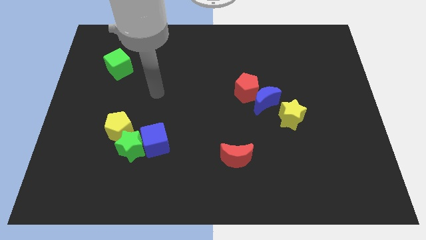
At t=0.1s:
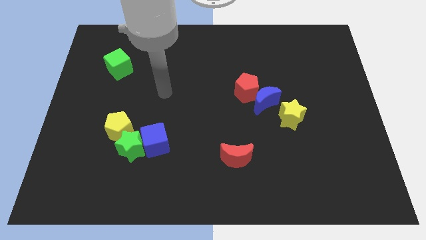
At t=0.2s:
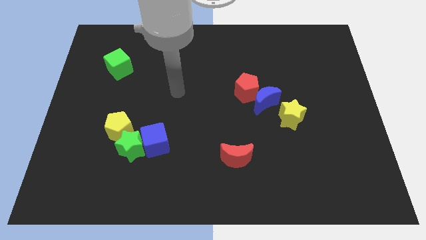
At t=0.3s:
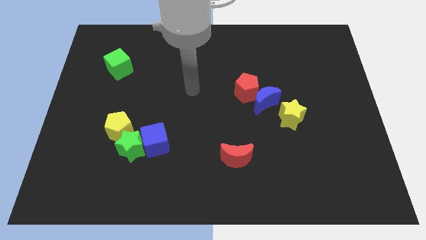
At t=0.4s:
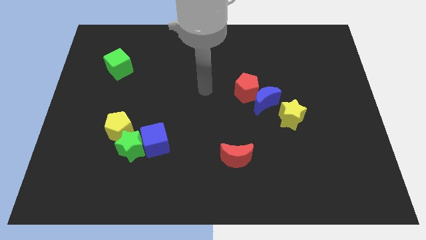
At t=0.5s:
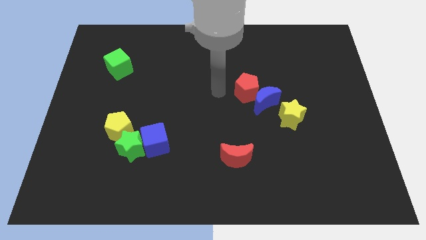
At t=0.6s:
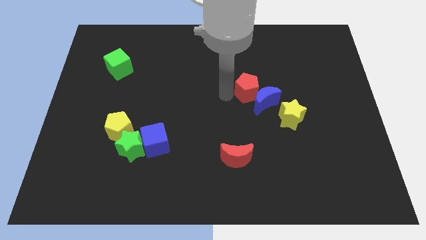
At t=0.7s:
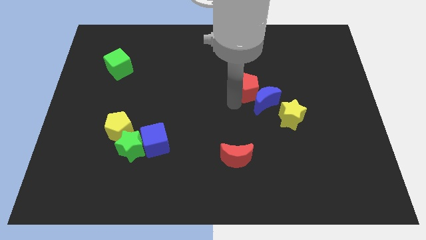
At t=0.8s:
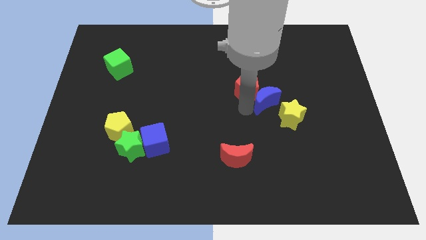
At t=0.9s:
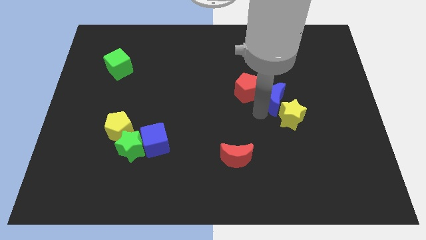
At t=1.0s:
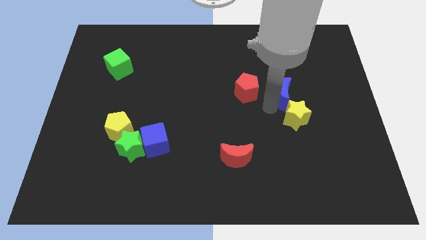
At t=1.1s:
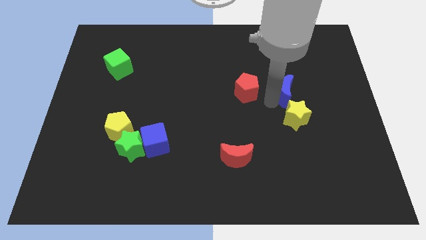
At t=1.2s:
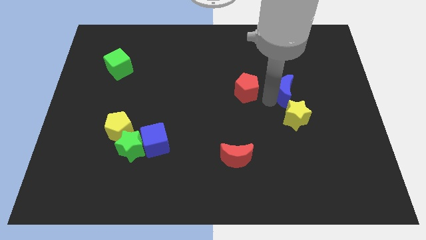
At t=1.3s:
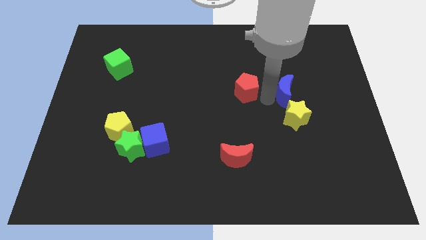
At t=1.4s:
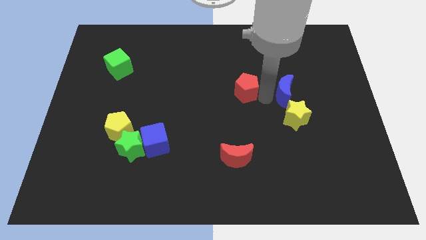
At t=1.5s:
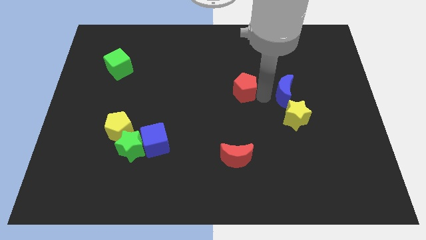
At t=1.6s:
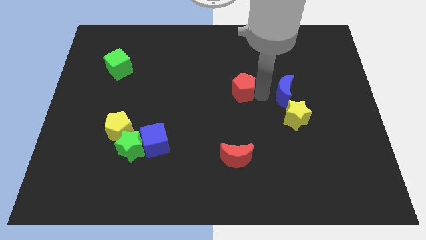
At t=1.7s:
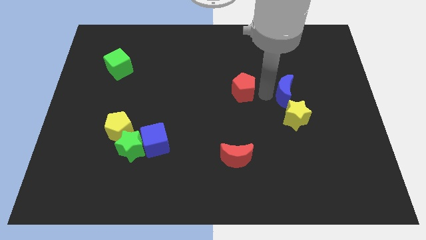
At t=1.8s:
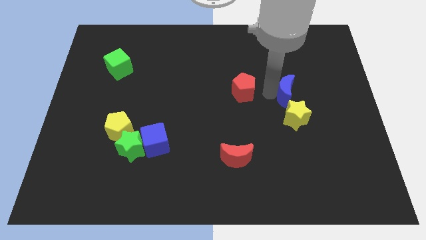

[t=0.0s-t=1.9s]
pull the red pentagon apart from the blue moon

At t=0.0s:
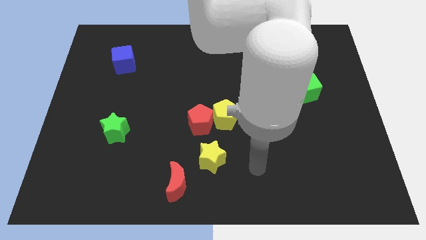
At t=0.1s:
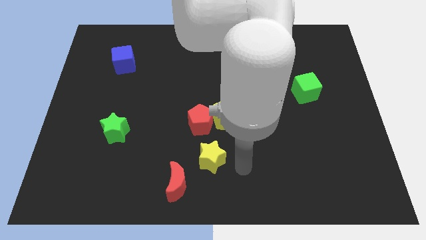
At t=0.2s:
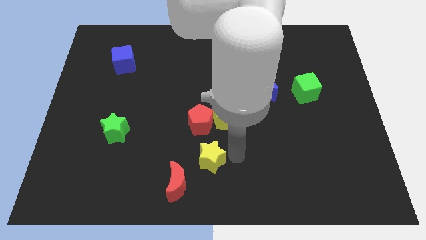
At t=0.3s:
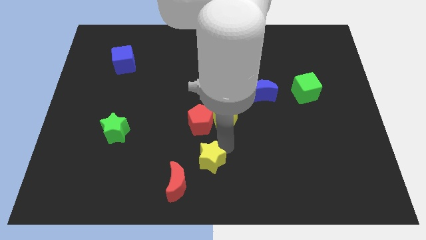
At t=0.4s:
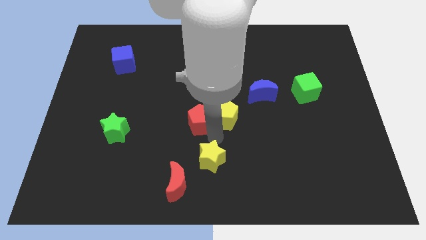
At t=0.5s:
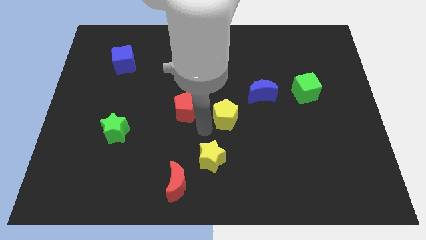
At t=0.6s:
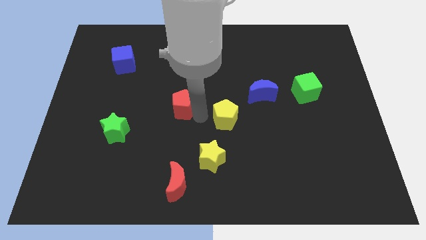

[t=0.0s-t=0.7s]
separate the yellow pentagon from the red pentagon

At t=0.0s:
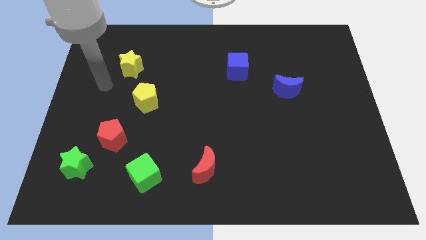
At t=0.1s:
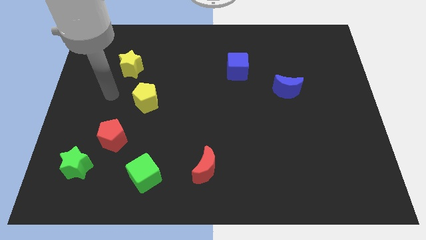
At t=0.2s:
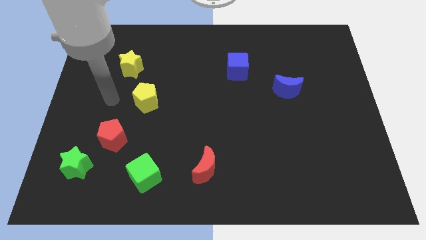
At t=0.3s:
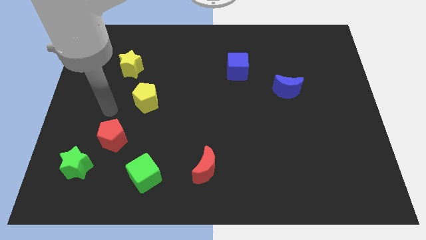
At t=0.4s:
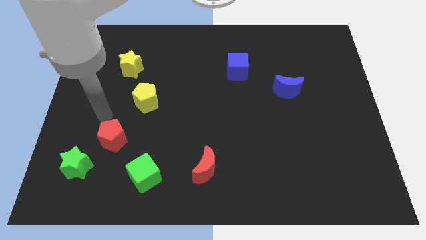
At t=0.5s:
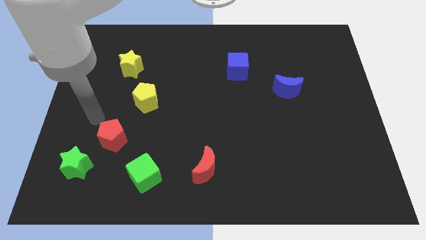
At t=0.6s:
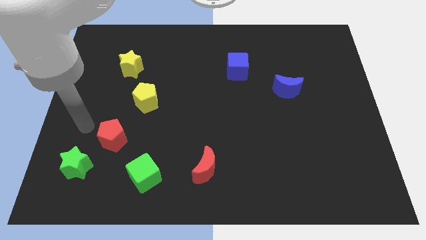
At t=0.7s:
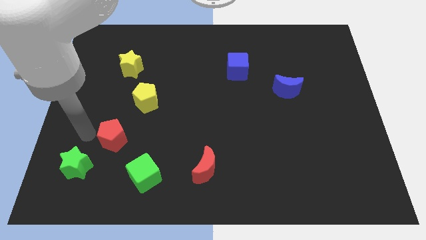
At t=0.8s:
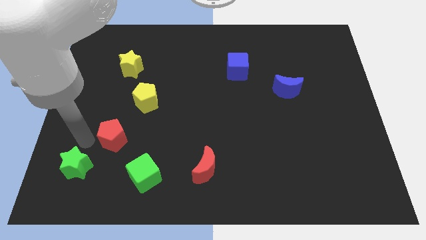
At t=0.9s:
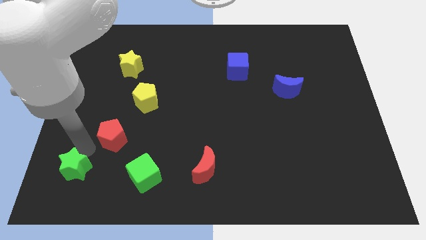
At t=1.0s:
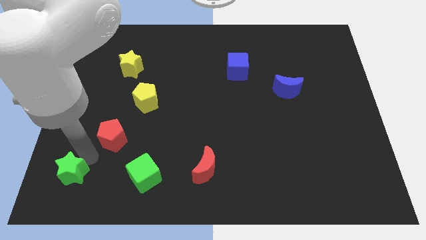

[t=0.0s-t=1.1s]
pull the red pentagon apart from the green star

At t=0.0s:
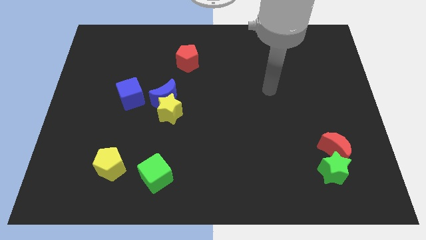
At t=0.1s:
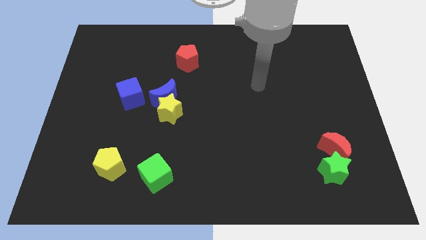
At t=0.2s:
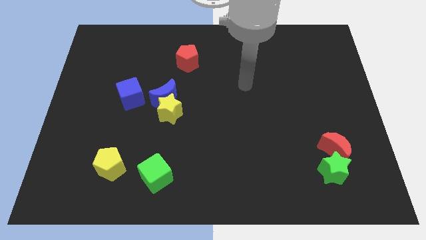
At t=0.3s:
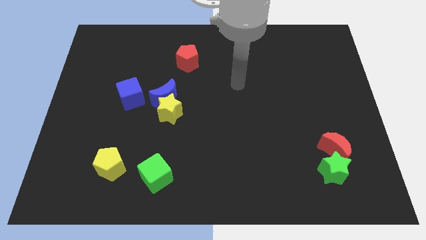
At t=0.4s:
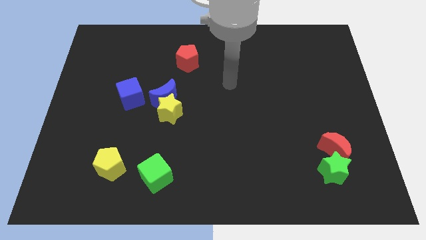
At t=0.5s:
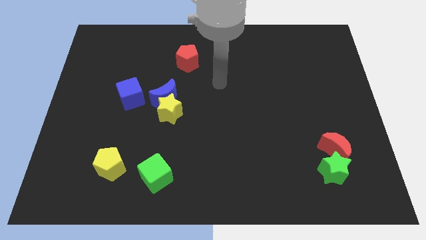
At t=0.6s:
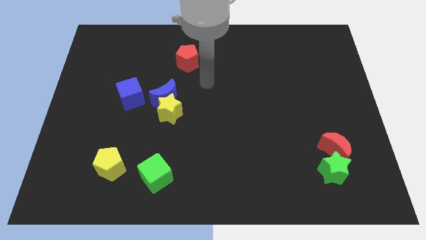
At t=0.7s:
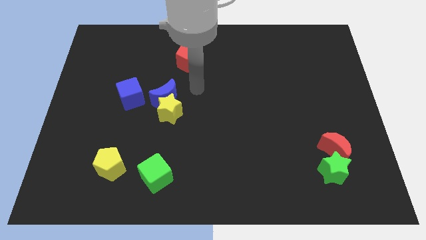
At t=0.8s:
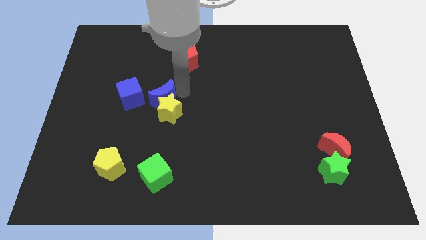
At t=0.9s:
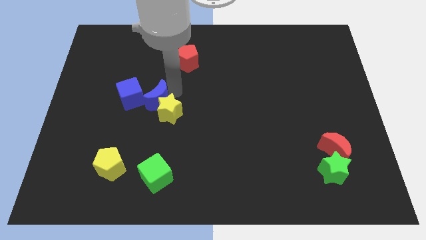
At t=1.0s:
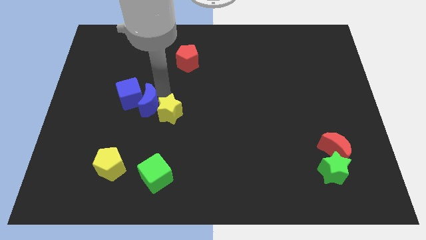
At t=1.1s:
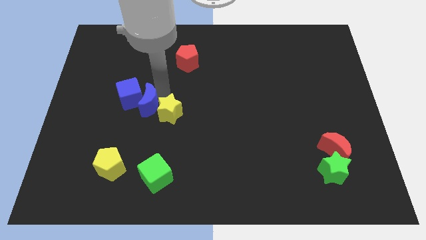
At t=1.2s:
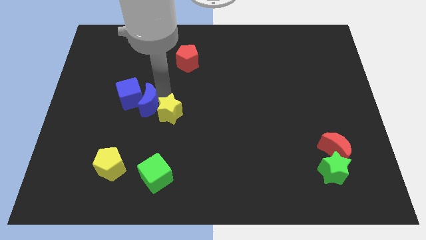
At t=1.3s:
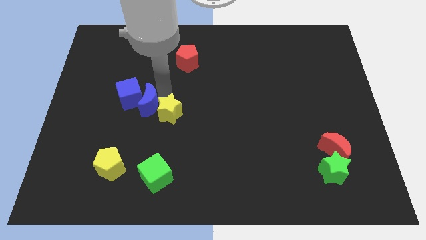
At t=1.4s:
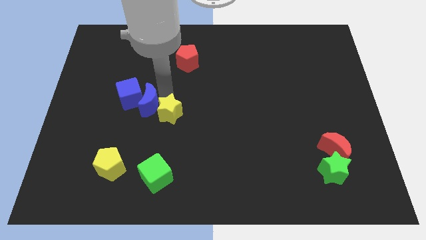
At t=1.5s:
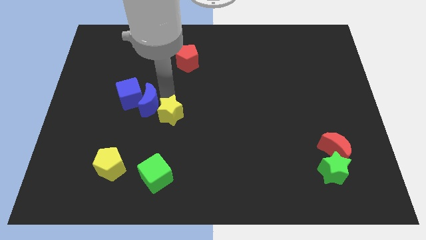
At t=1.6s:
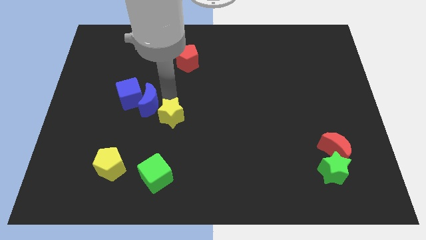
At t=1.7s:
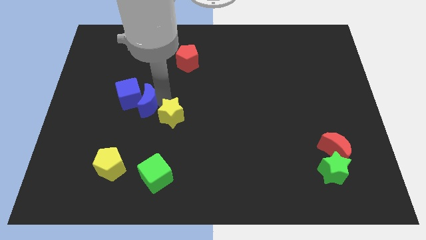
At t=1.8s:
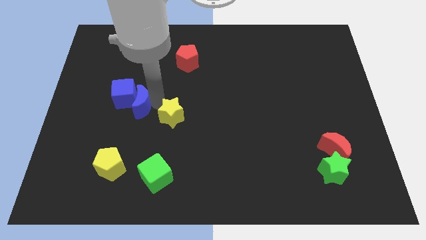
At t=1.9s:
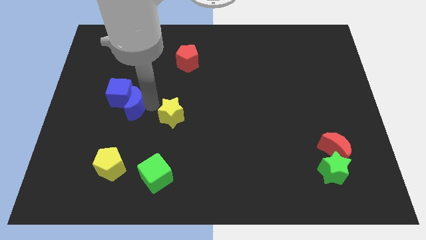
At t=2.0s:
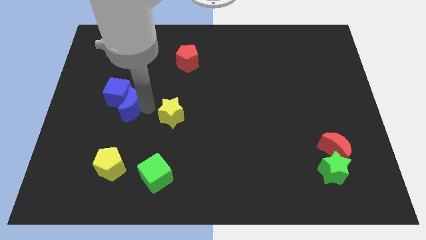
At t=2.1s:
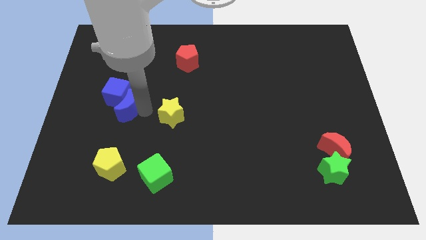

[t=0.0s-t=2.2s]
pull the yellow star apart from the blue moon

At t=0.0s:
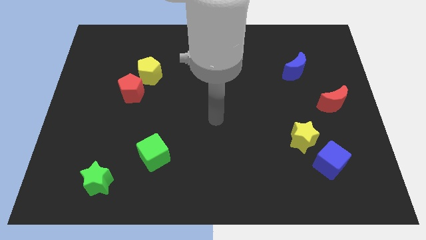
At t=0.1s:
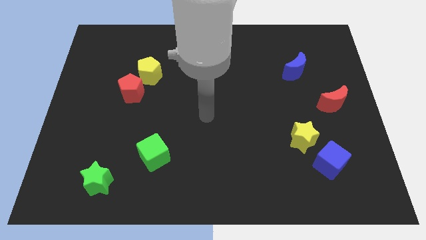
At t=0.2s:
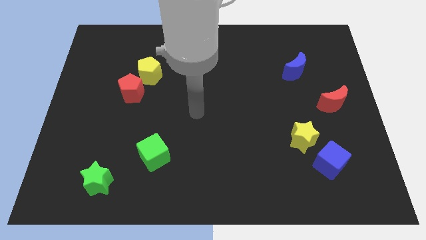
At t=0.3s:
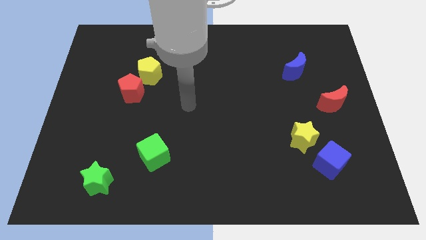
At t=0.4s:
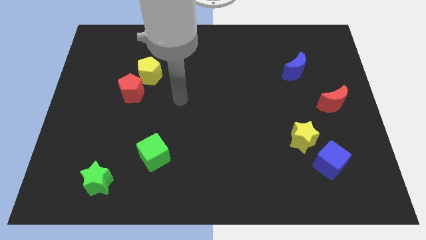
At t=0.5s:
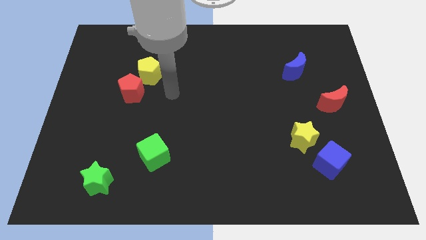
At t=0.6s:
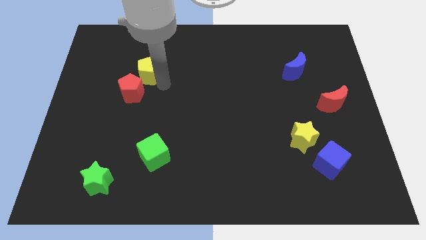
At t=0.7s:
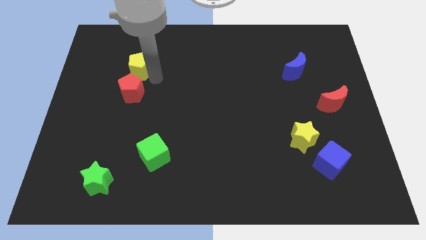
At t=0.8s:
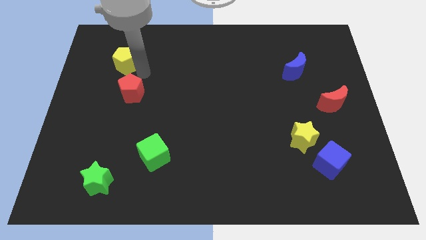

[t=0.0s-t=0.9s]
separate the red pentagon from the yellow pentagon

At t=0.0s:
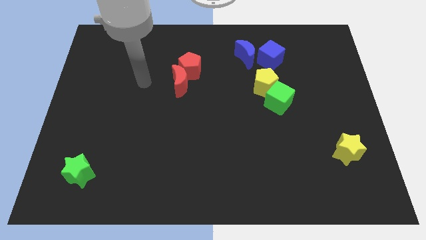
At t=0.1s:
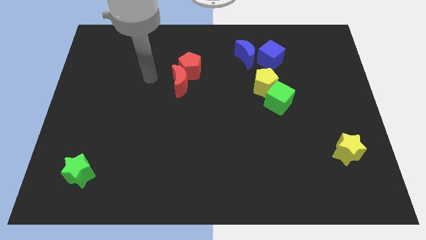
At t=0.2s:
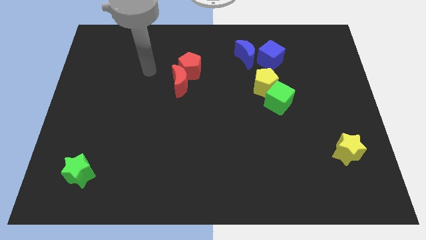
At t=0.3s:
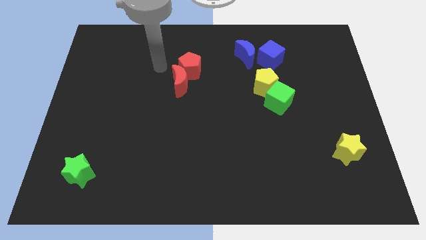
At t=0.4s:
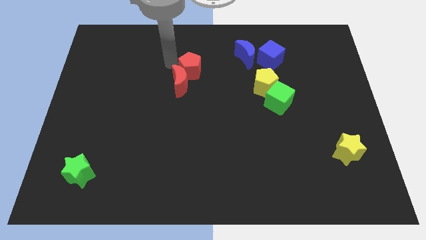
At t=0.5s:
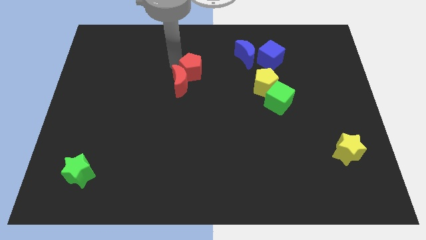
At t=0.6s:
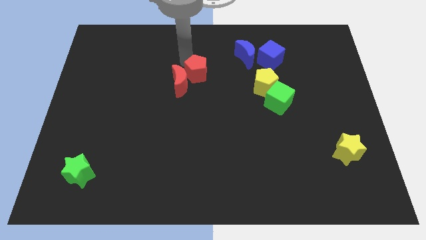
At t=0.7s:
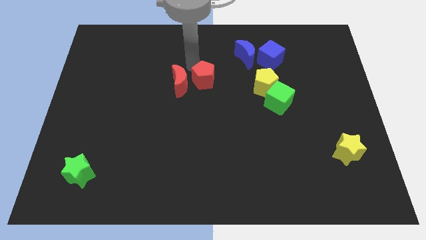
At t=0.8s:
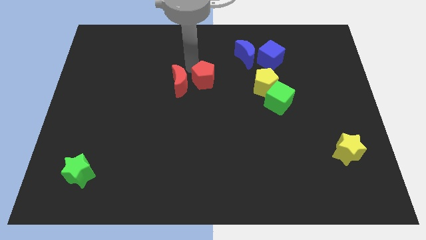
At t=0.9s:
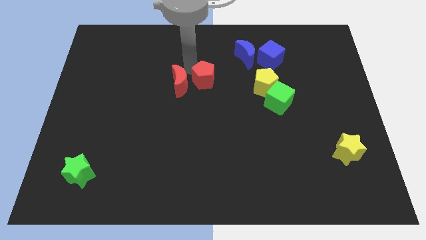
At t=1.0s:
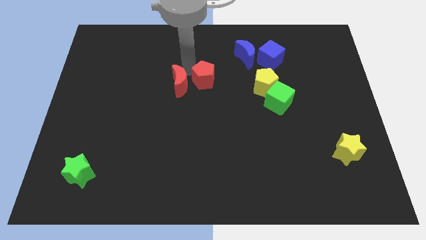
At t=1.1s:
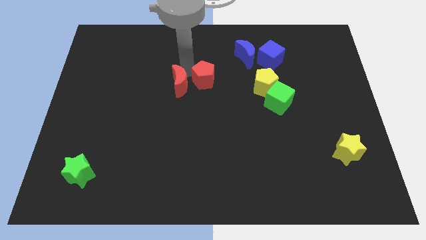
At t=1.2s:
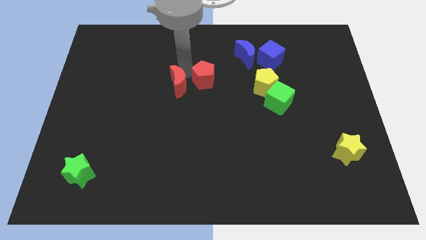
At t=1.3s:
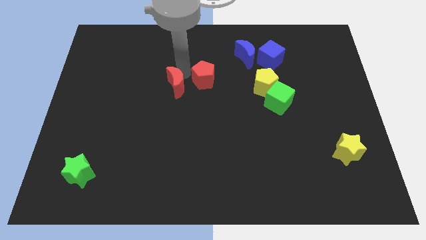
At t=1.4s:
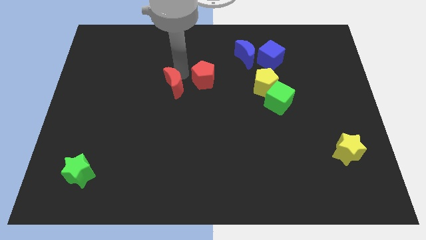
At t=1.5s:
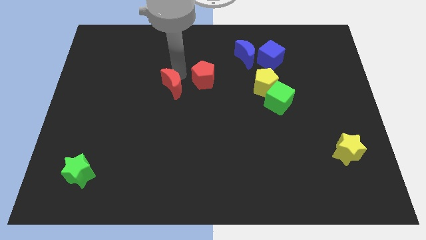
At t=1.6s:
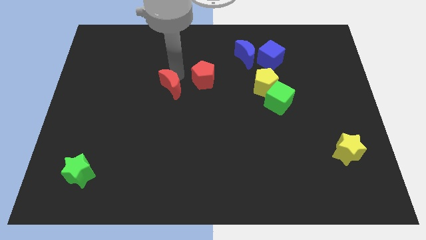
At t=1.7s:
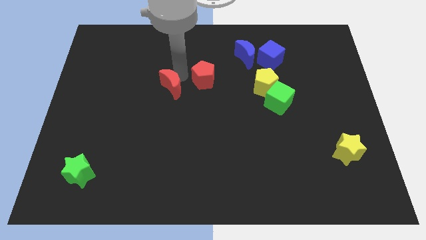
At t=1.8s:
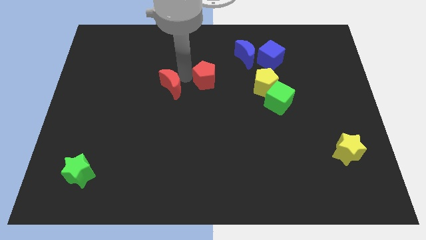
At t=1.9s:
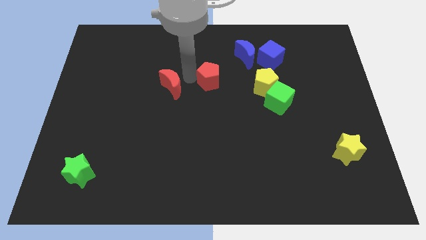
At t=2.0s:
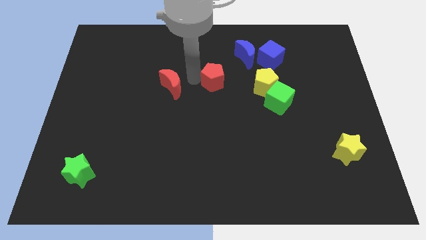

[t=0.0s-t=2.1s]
pull the red moon apart from the red pentagon

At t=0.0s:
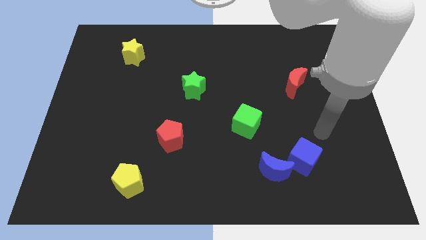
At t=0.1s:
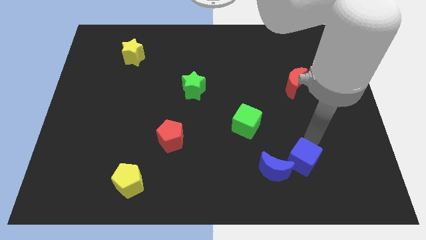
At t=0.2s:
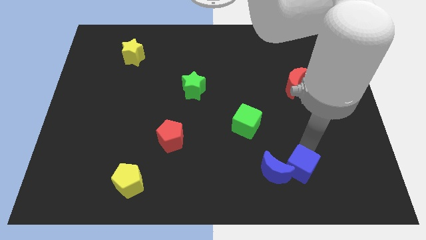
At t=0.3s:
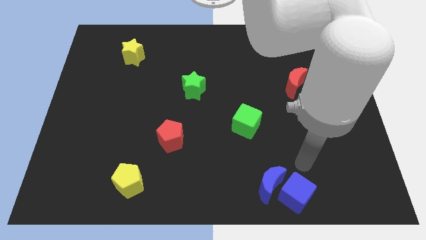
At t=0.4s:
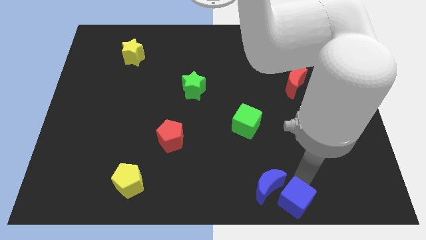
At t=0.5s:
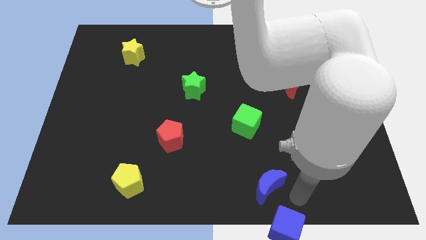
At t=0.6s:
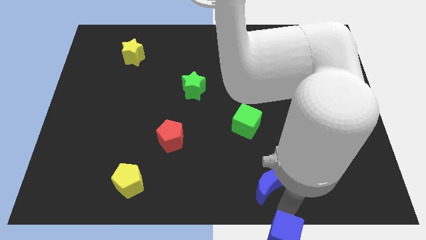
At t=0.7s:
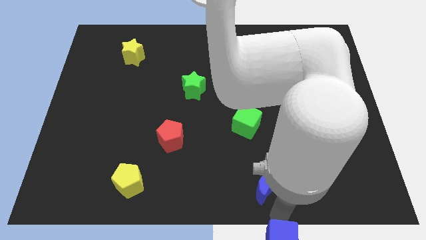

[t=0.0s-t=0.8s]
pull the blue moon apart from the blue cube
